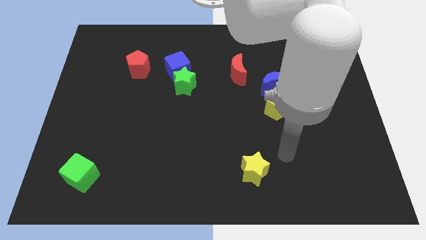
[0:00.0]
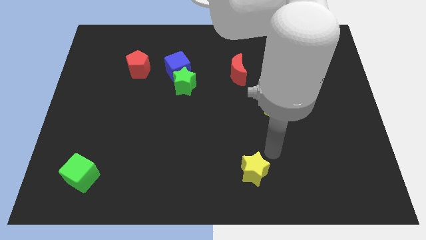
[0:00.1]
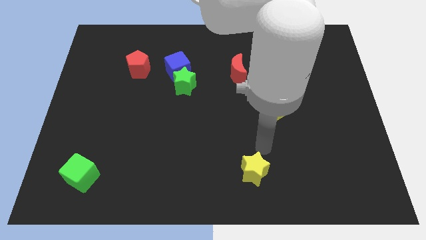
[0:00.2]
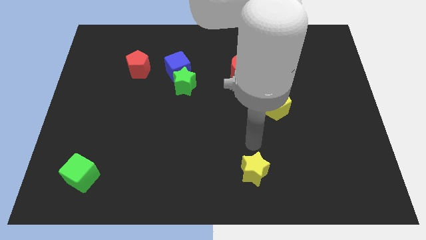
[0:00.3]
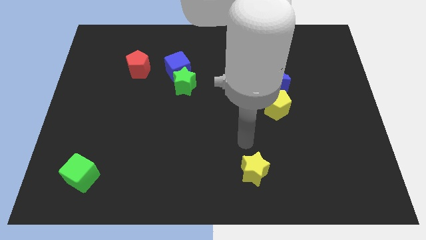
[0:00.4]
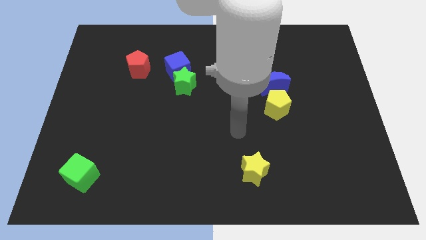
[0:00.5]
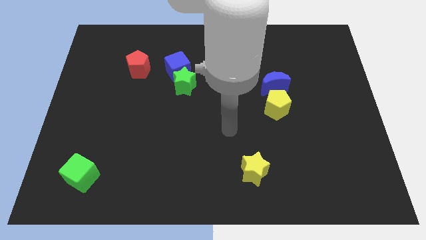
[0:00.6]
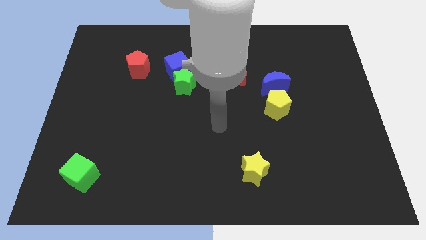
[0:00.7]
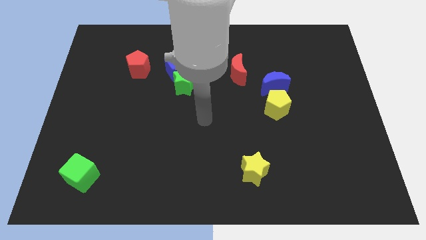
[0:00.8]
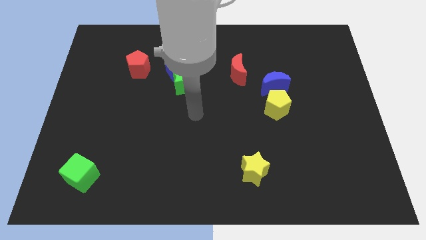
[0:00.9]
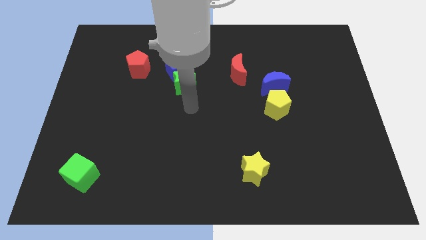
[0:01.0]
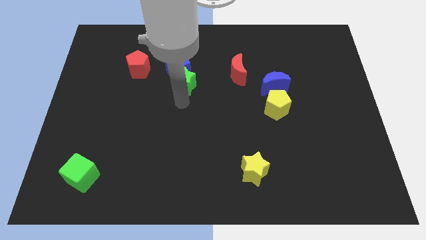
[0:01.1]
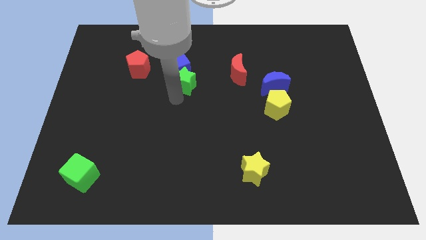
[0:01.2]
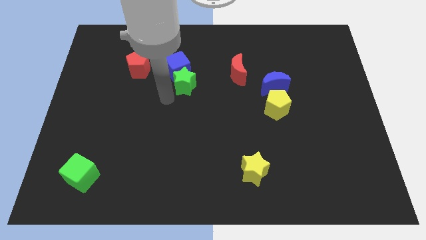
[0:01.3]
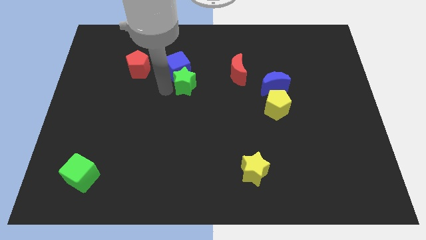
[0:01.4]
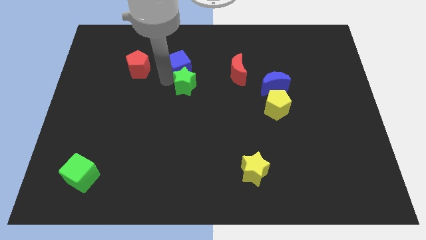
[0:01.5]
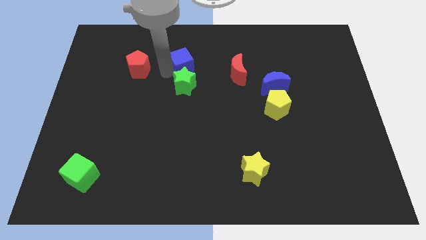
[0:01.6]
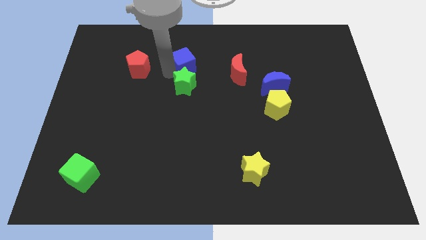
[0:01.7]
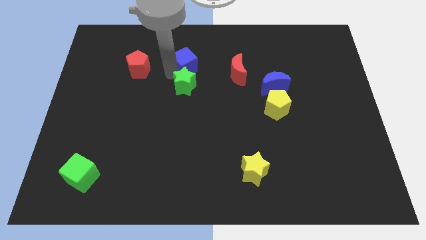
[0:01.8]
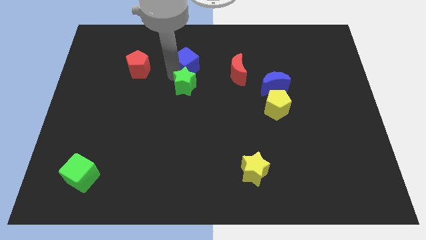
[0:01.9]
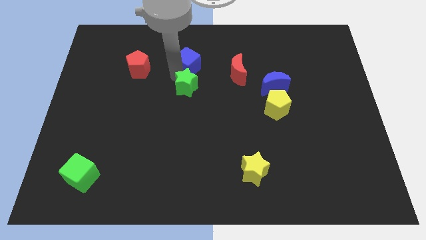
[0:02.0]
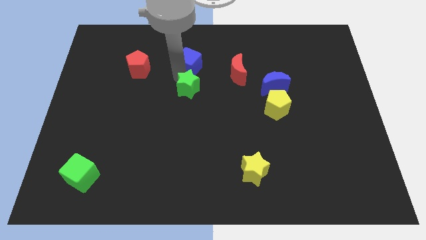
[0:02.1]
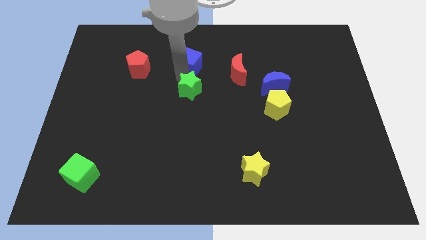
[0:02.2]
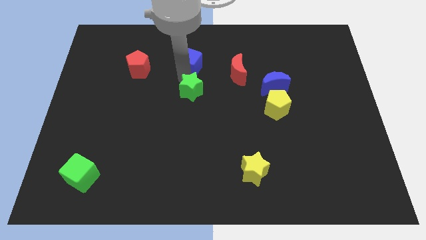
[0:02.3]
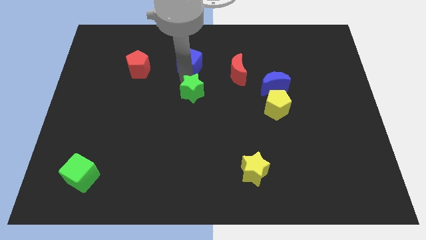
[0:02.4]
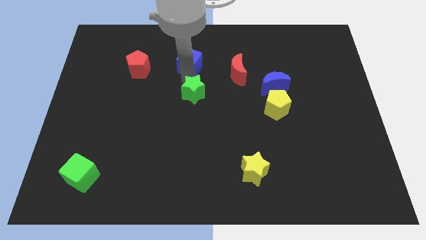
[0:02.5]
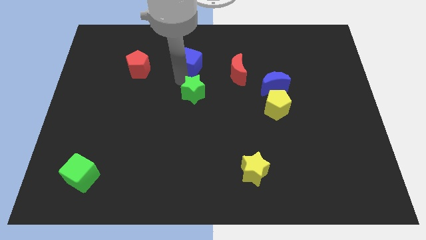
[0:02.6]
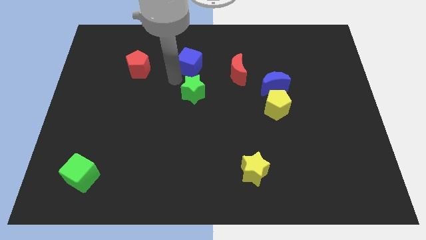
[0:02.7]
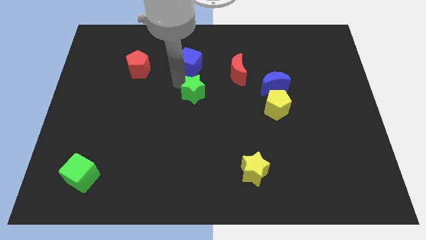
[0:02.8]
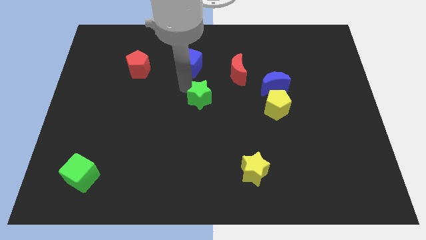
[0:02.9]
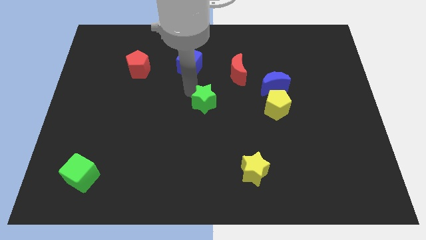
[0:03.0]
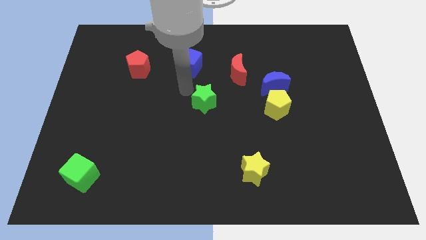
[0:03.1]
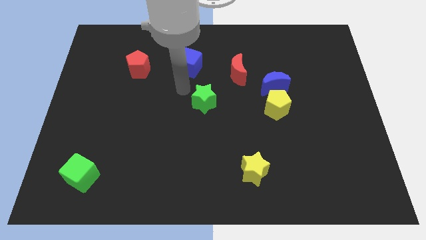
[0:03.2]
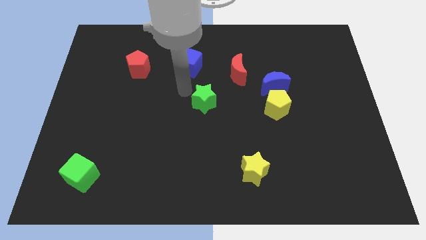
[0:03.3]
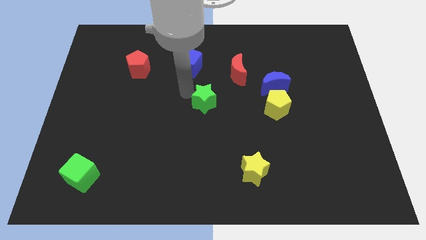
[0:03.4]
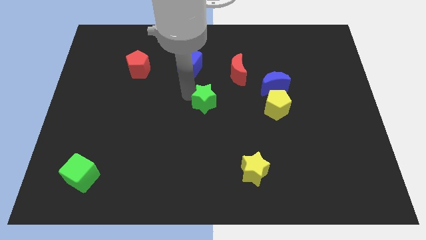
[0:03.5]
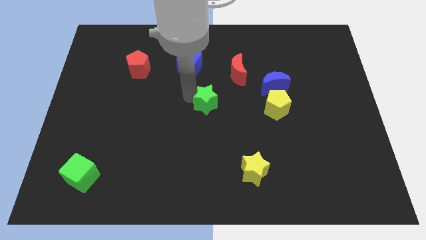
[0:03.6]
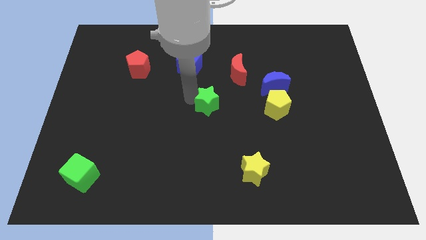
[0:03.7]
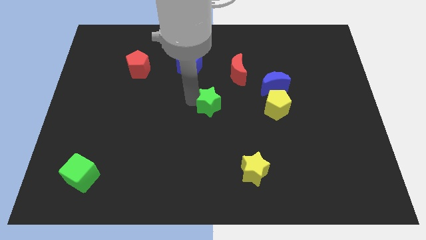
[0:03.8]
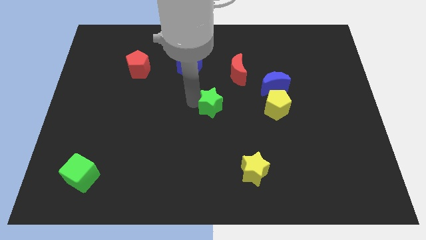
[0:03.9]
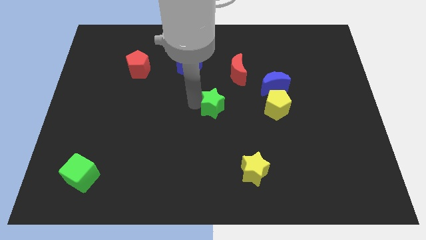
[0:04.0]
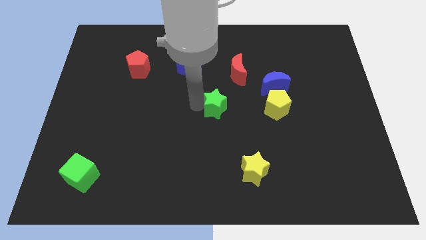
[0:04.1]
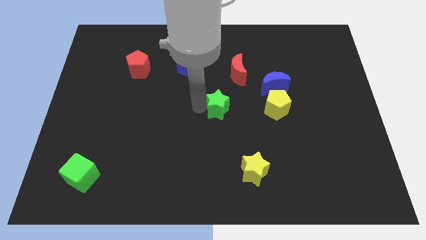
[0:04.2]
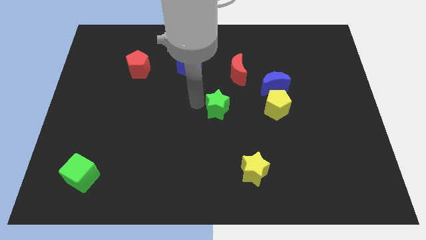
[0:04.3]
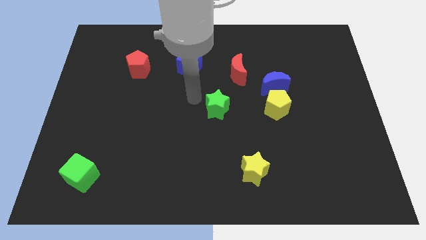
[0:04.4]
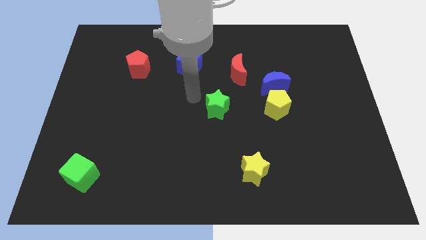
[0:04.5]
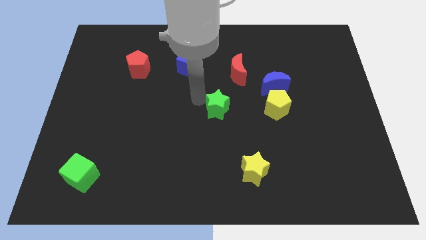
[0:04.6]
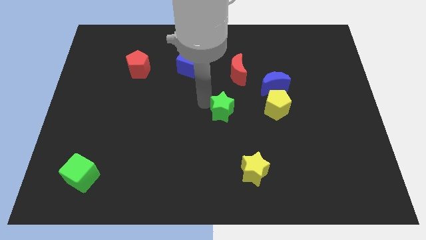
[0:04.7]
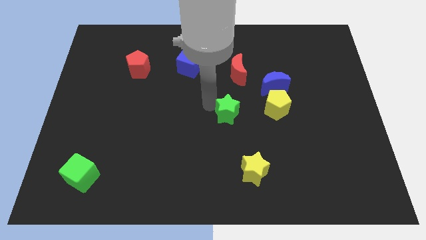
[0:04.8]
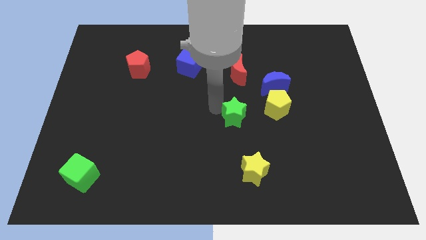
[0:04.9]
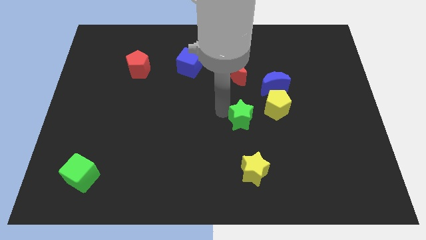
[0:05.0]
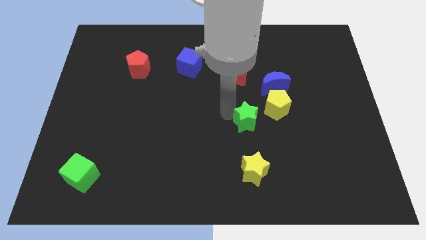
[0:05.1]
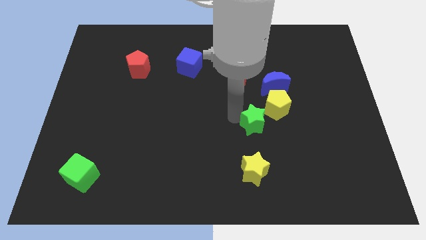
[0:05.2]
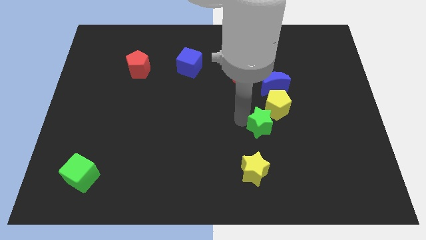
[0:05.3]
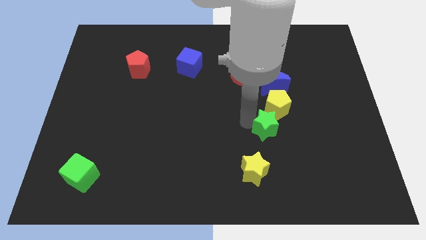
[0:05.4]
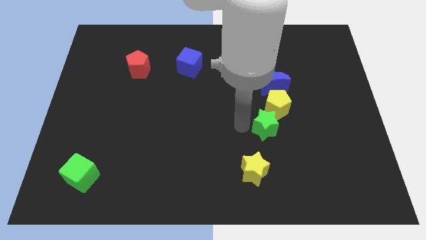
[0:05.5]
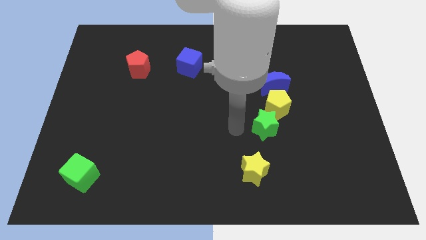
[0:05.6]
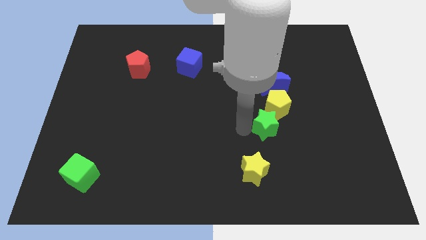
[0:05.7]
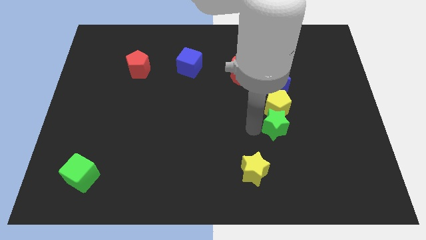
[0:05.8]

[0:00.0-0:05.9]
push the green star diagonally down and to the right of the yellow pentagon
